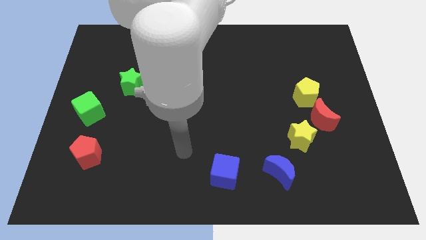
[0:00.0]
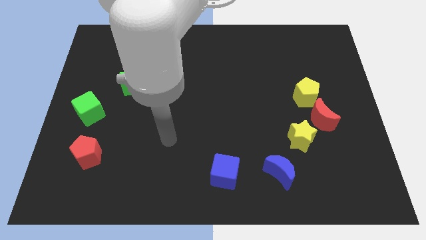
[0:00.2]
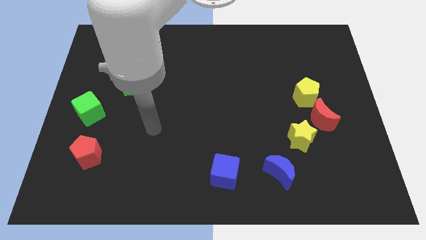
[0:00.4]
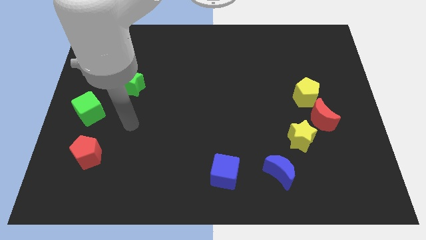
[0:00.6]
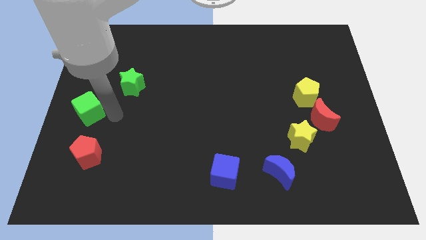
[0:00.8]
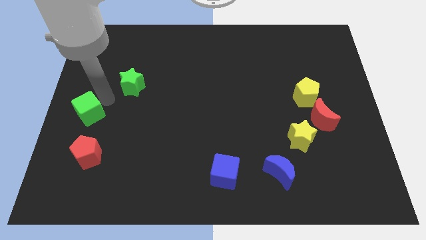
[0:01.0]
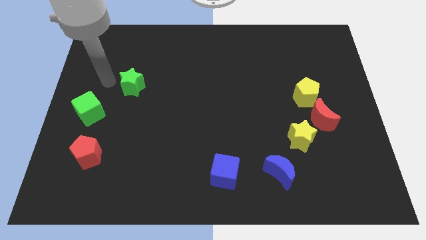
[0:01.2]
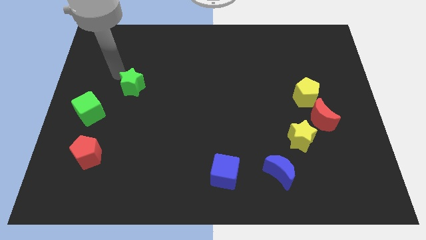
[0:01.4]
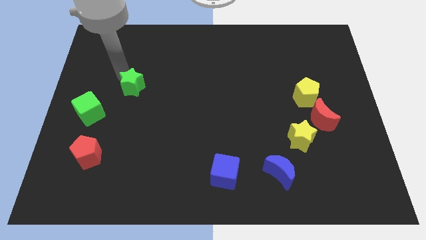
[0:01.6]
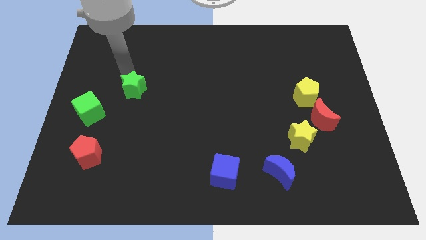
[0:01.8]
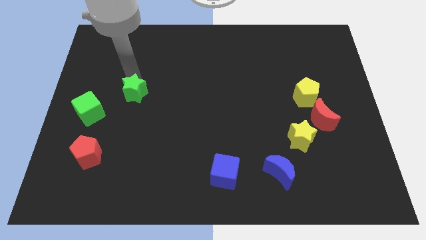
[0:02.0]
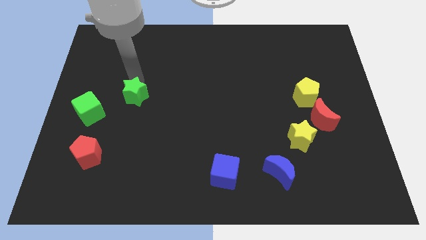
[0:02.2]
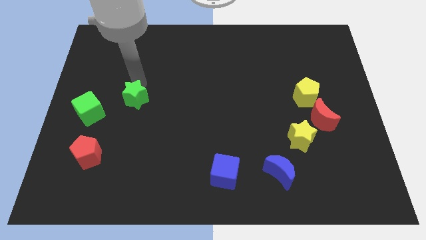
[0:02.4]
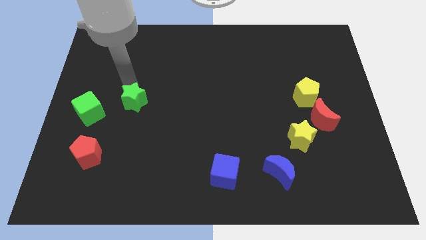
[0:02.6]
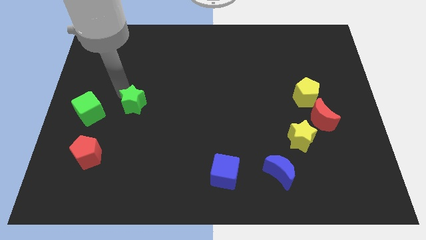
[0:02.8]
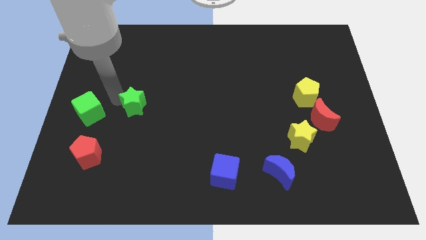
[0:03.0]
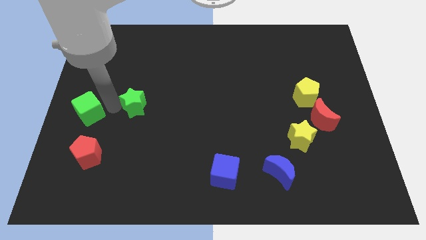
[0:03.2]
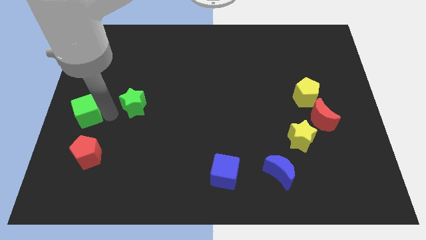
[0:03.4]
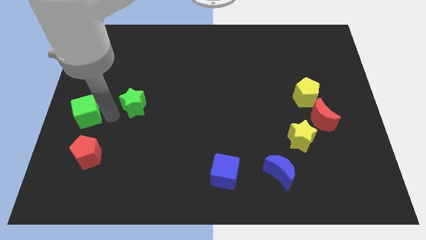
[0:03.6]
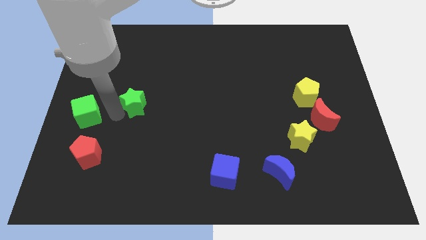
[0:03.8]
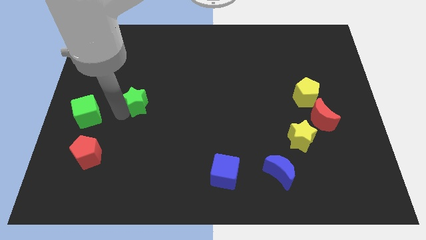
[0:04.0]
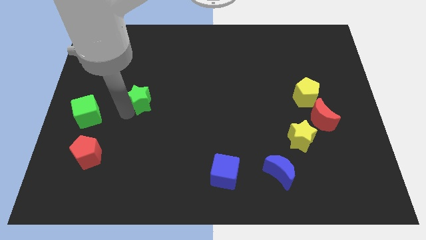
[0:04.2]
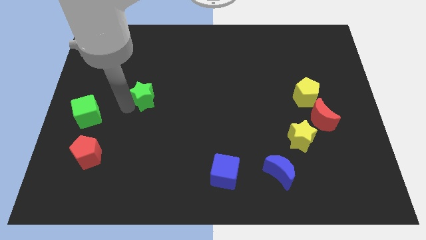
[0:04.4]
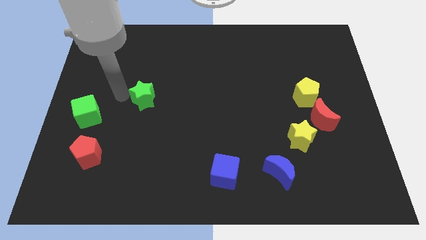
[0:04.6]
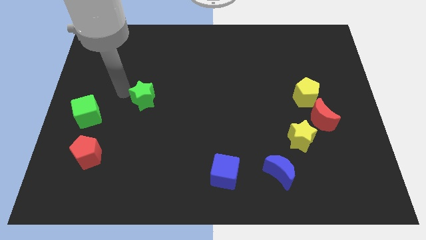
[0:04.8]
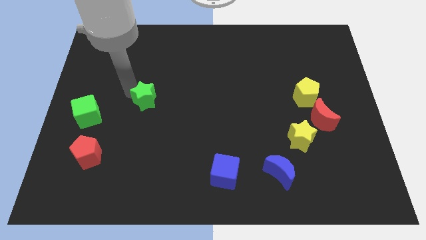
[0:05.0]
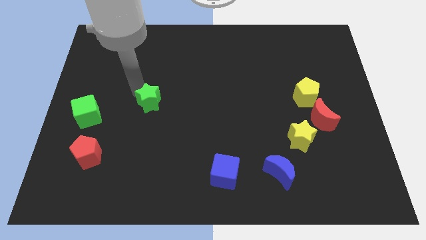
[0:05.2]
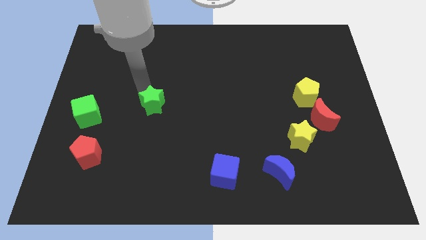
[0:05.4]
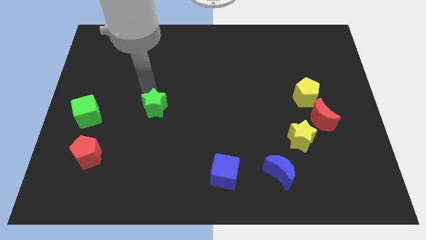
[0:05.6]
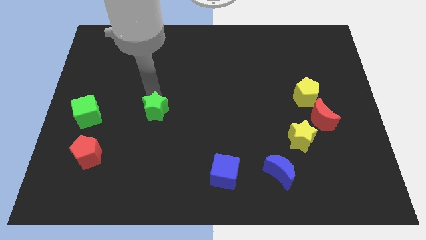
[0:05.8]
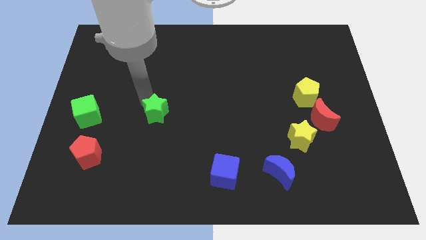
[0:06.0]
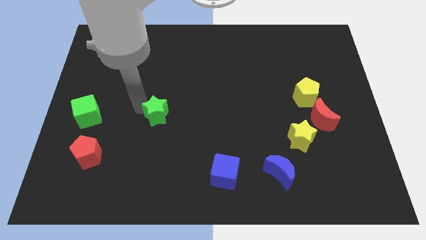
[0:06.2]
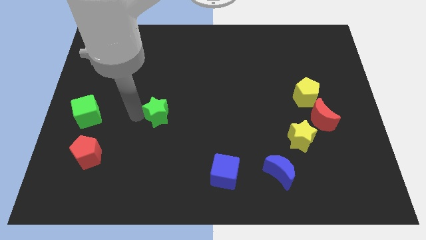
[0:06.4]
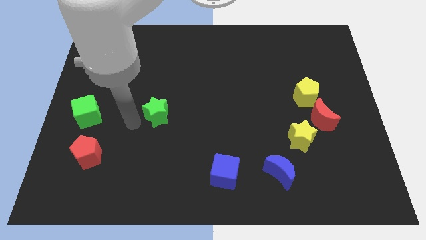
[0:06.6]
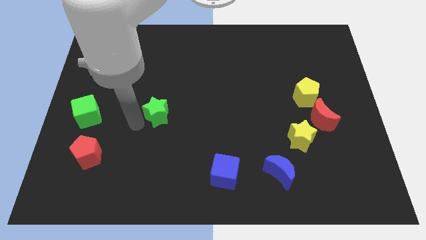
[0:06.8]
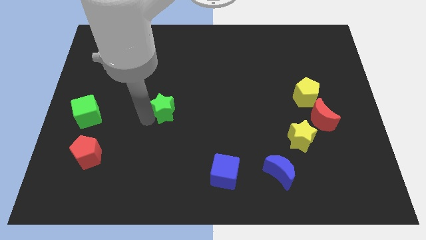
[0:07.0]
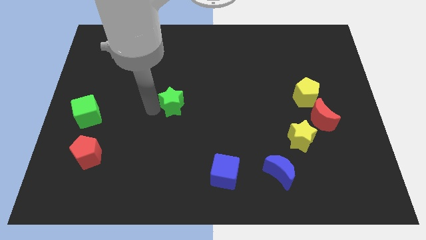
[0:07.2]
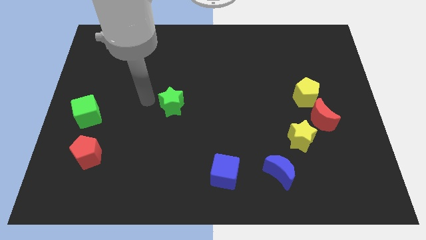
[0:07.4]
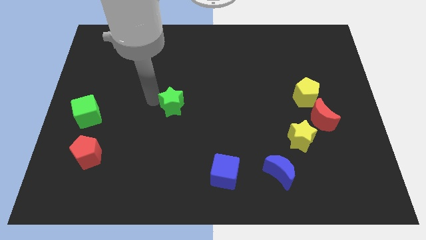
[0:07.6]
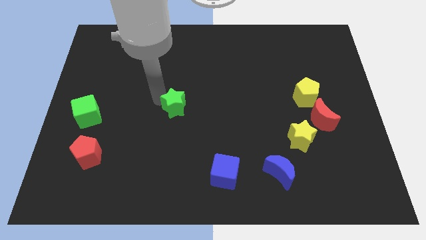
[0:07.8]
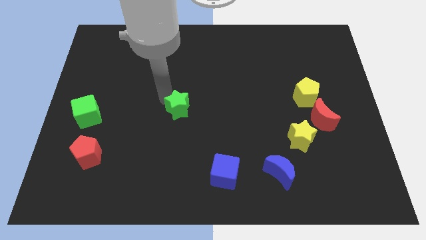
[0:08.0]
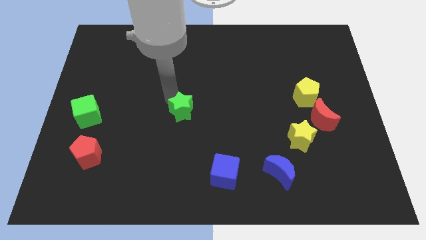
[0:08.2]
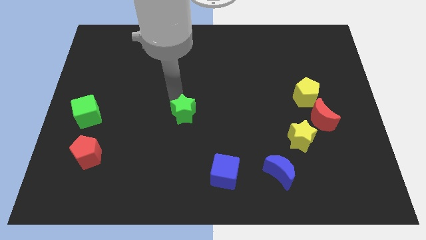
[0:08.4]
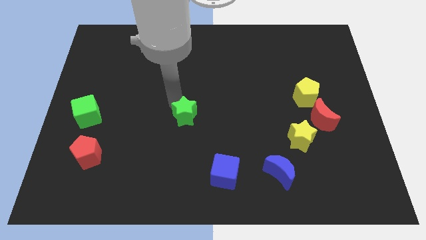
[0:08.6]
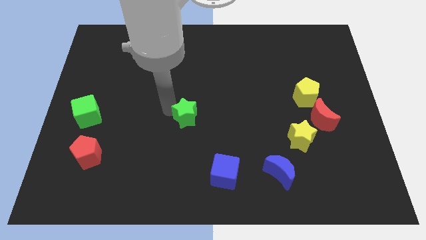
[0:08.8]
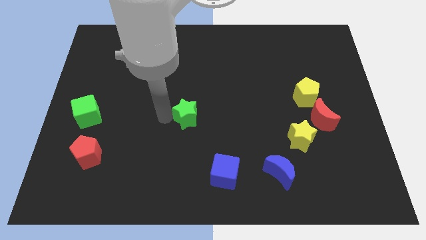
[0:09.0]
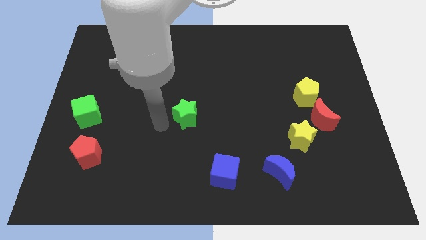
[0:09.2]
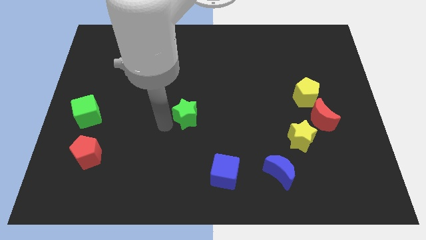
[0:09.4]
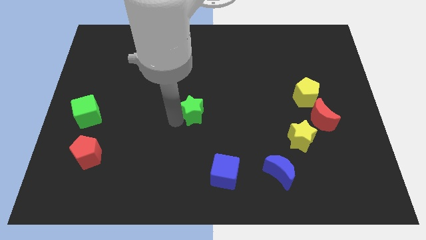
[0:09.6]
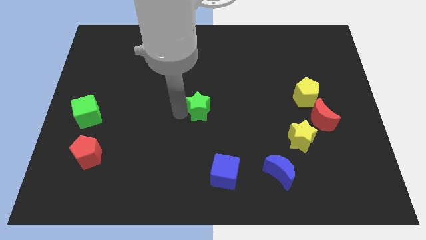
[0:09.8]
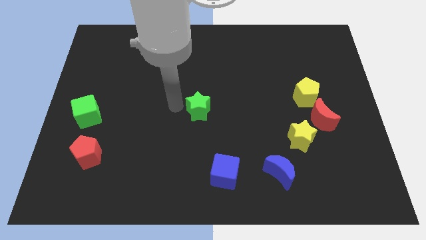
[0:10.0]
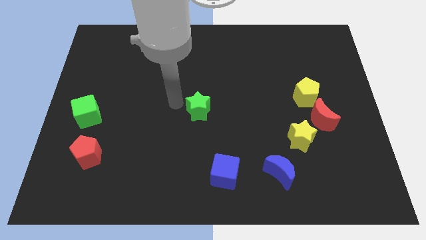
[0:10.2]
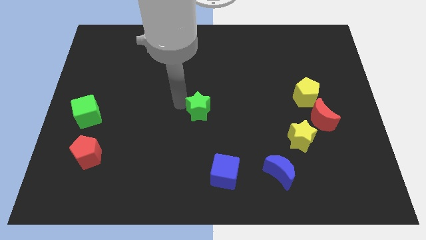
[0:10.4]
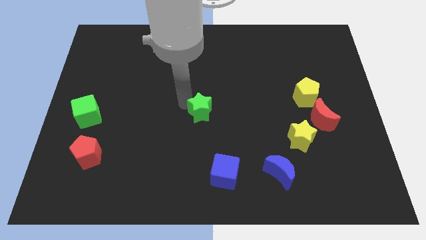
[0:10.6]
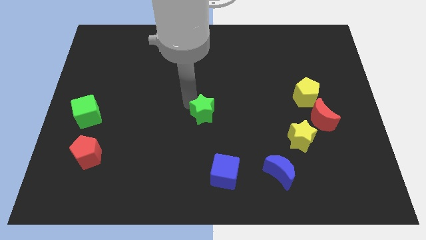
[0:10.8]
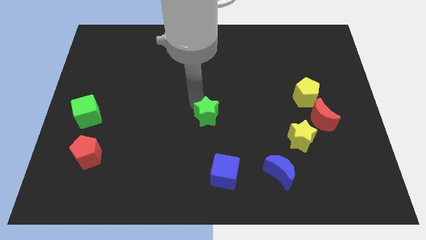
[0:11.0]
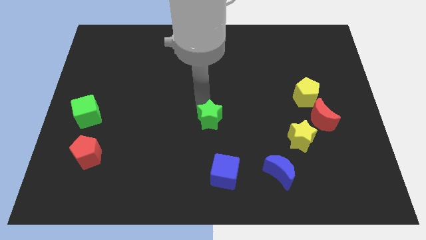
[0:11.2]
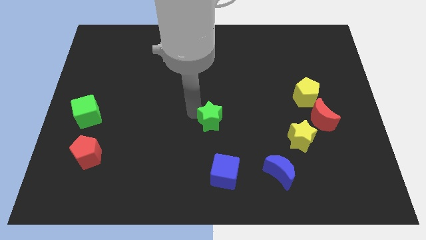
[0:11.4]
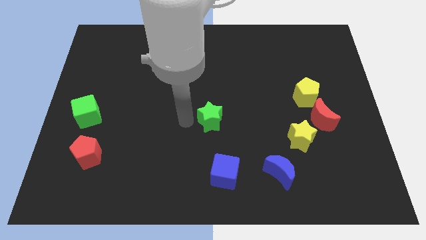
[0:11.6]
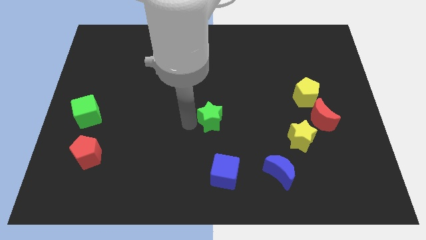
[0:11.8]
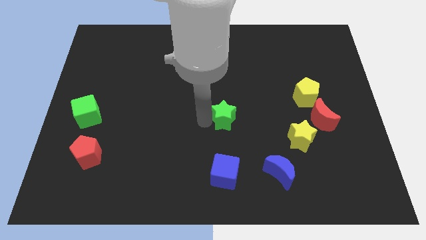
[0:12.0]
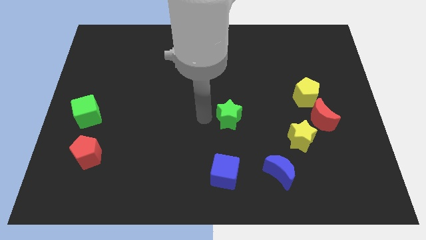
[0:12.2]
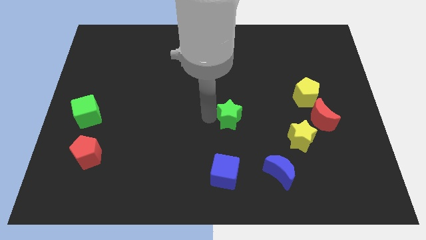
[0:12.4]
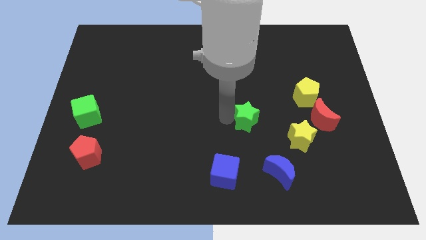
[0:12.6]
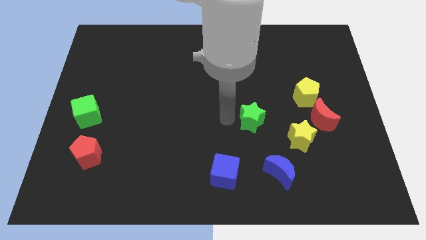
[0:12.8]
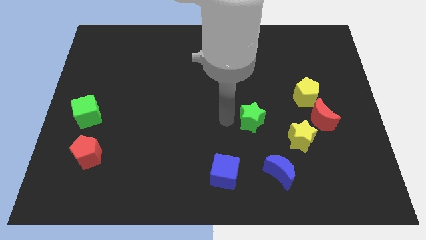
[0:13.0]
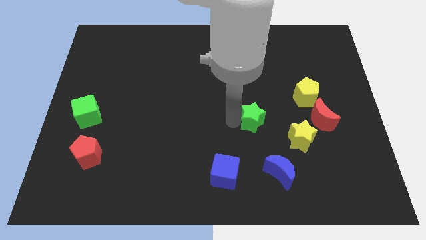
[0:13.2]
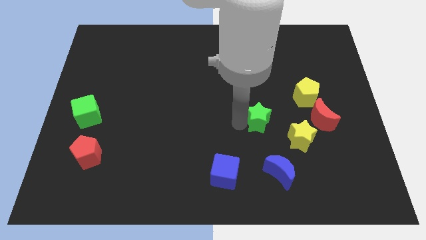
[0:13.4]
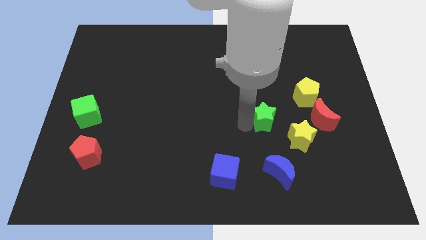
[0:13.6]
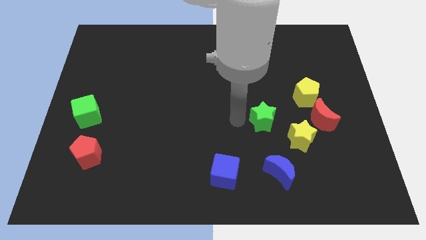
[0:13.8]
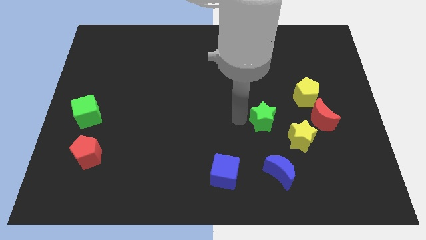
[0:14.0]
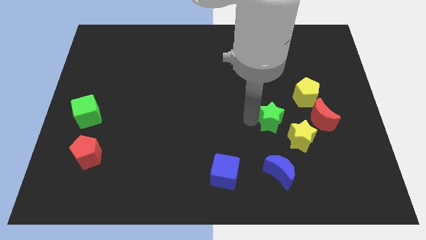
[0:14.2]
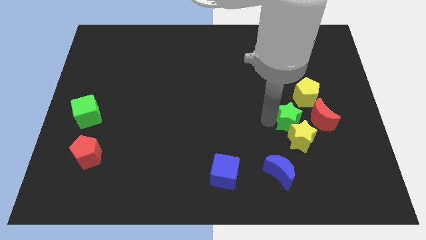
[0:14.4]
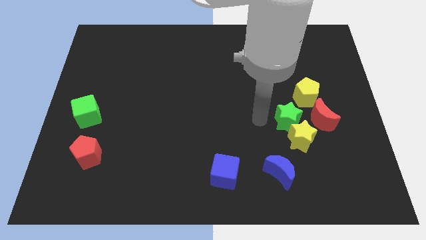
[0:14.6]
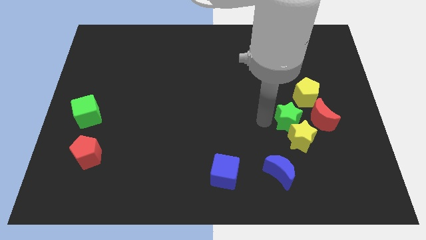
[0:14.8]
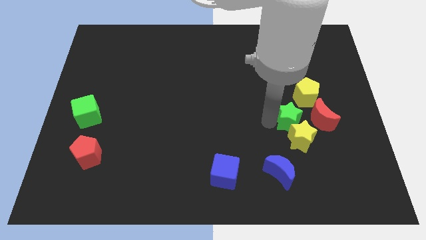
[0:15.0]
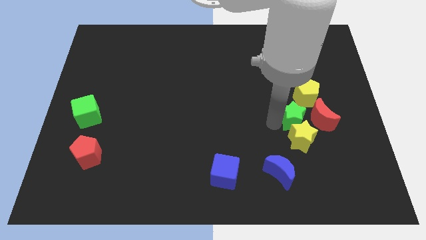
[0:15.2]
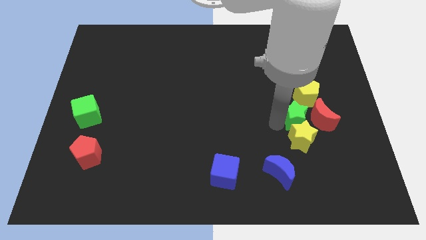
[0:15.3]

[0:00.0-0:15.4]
move the green star next to the red moon
